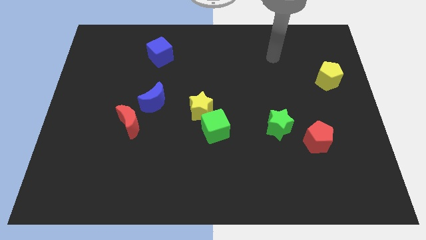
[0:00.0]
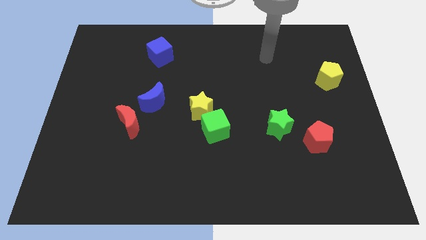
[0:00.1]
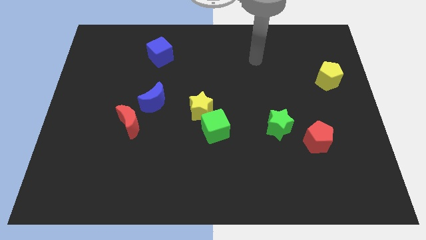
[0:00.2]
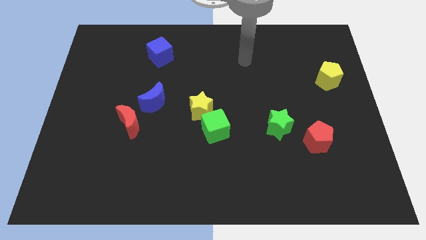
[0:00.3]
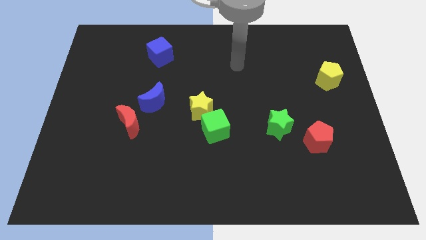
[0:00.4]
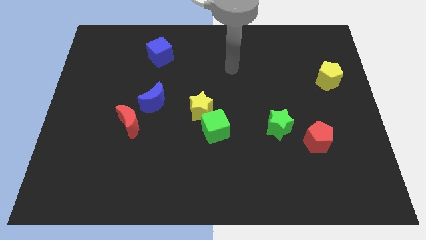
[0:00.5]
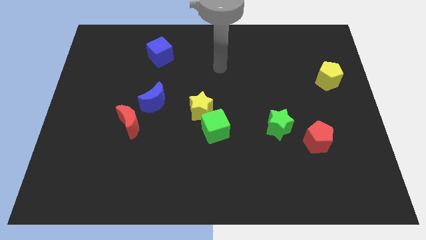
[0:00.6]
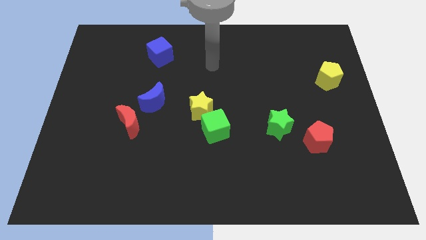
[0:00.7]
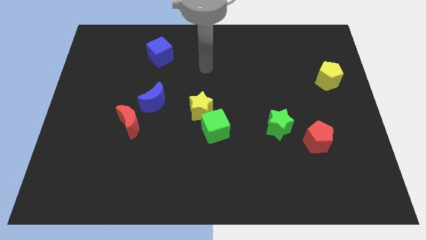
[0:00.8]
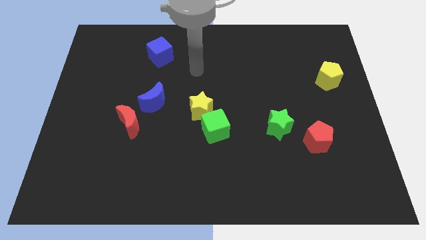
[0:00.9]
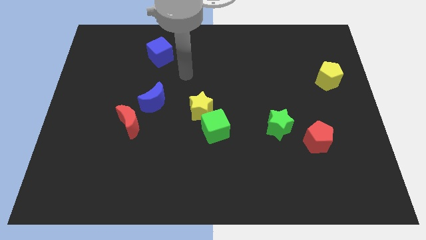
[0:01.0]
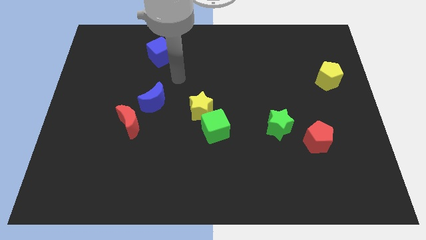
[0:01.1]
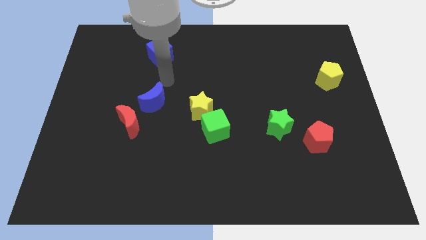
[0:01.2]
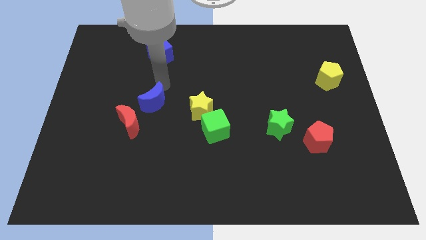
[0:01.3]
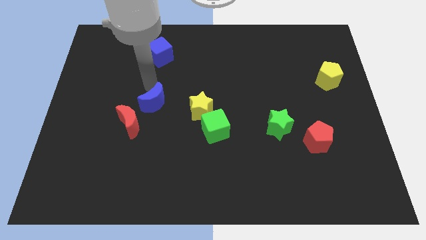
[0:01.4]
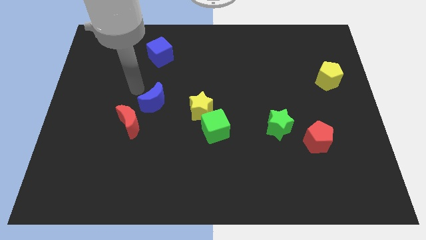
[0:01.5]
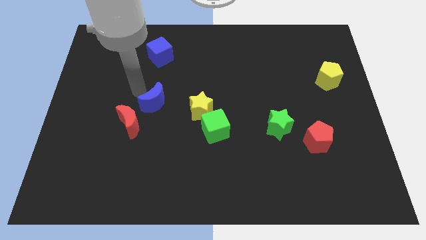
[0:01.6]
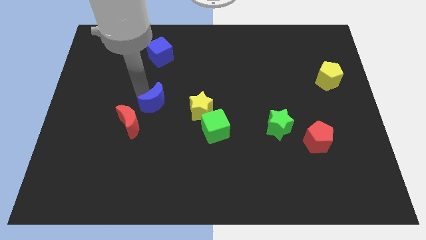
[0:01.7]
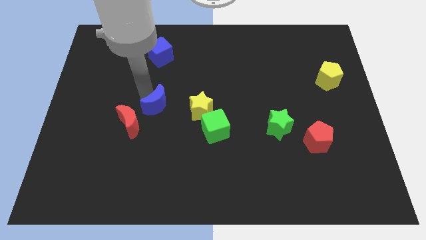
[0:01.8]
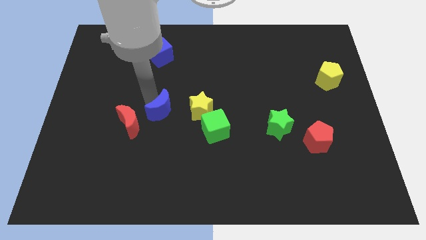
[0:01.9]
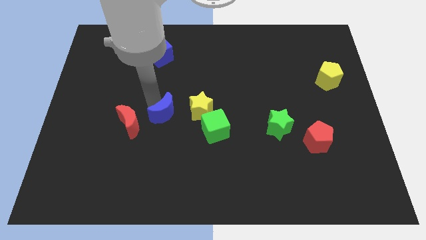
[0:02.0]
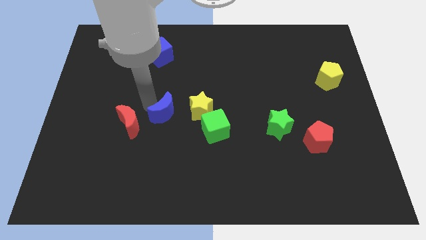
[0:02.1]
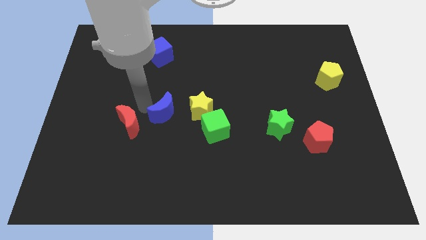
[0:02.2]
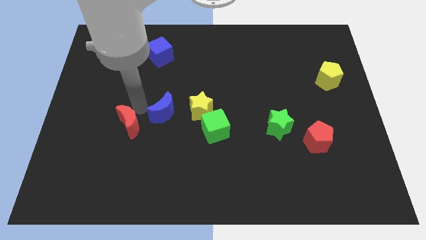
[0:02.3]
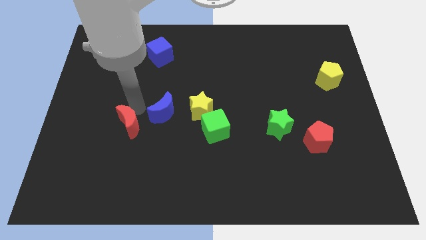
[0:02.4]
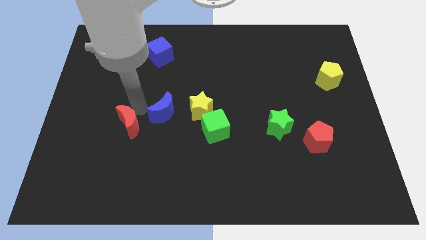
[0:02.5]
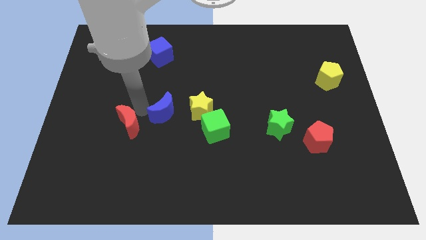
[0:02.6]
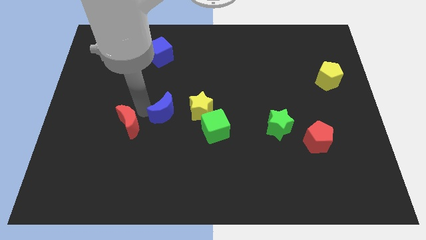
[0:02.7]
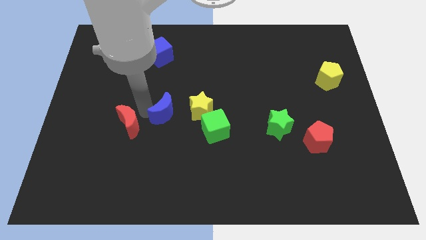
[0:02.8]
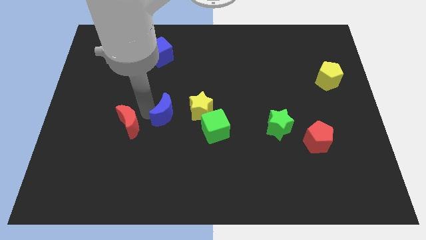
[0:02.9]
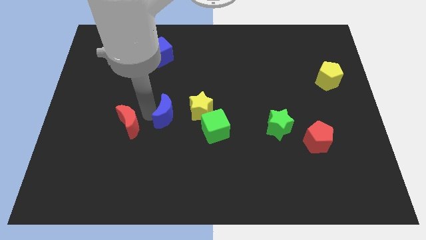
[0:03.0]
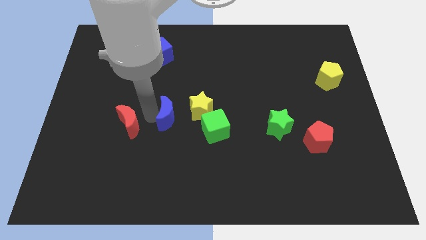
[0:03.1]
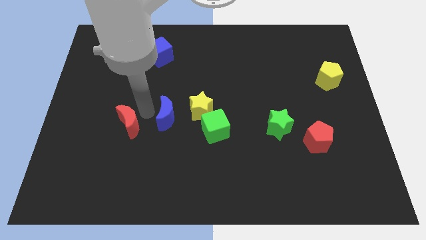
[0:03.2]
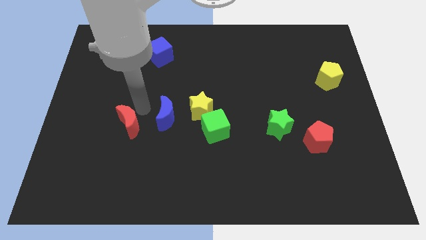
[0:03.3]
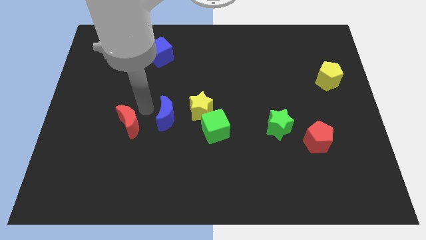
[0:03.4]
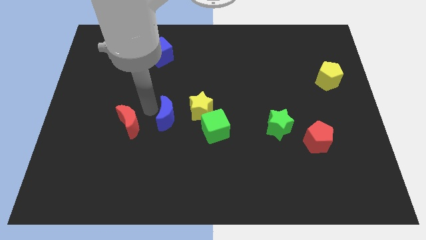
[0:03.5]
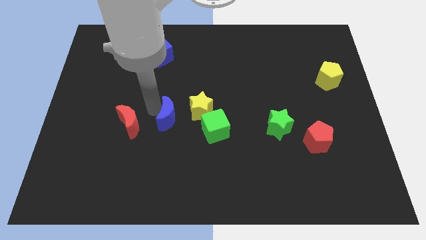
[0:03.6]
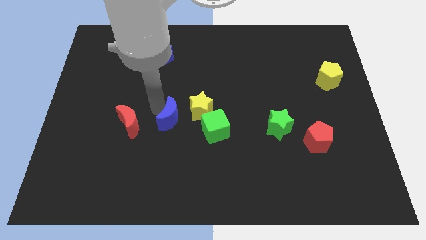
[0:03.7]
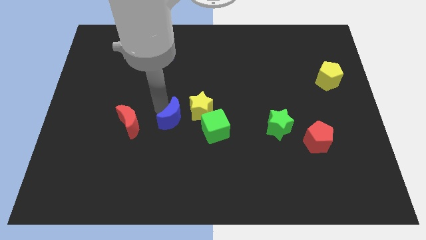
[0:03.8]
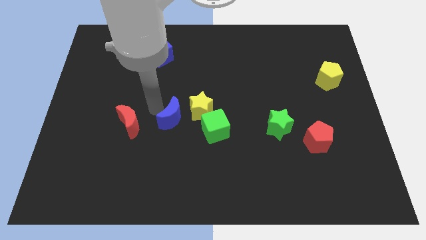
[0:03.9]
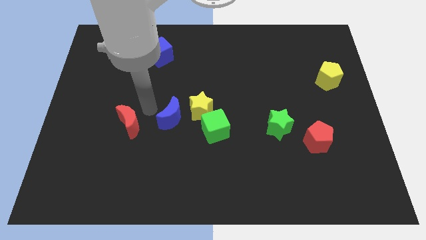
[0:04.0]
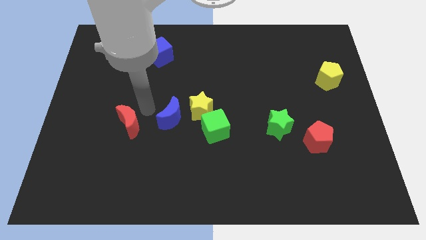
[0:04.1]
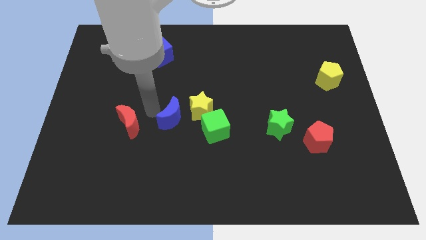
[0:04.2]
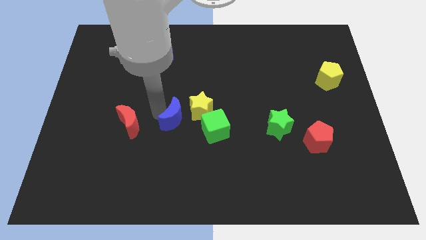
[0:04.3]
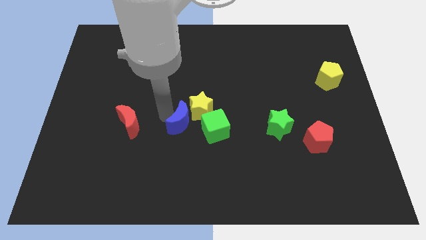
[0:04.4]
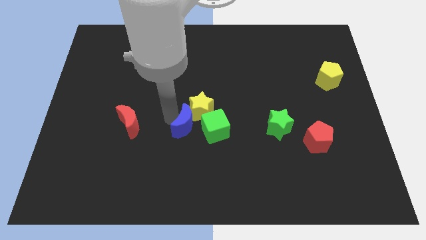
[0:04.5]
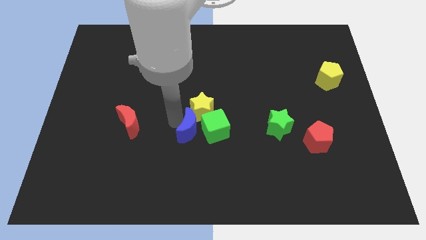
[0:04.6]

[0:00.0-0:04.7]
slide the blue moon to the green cube

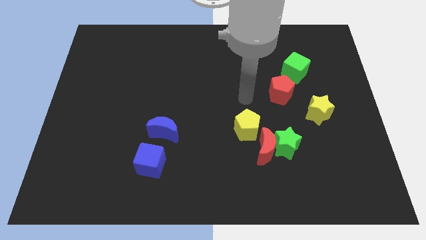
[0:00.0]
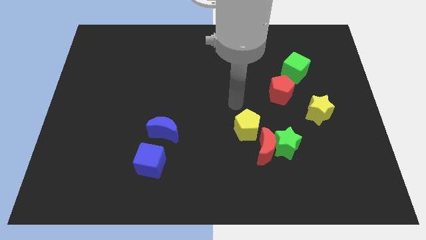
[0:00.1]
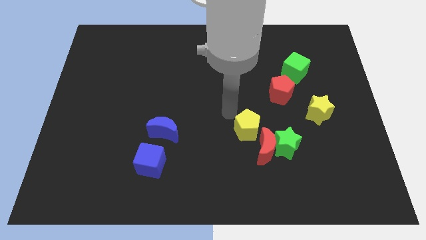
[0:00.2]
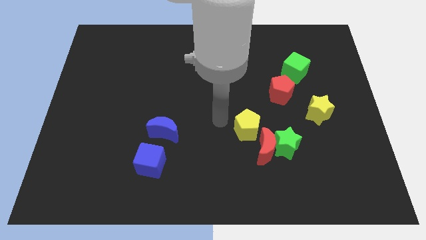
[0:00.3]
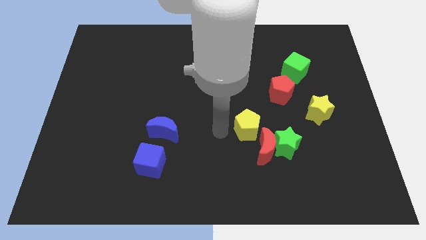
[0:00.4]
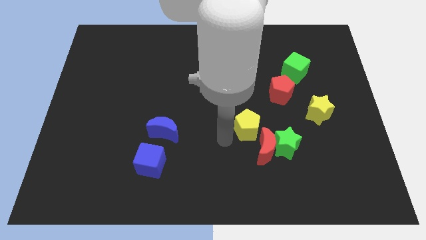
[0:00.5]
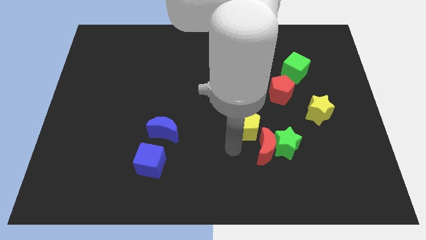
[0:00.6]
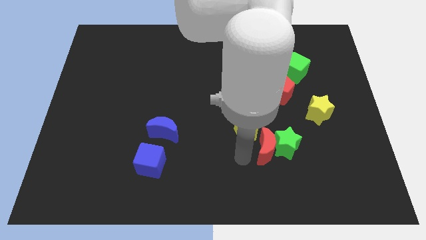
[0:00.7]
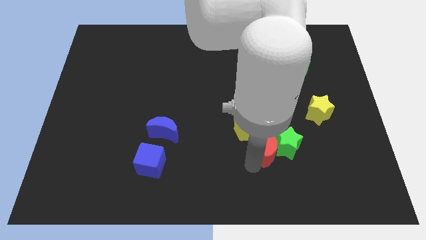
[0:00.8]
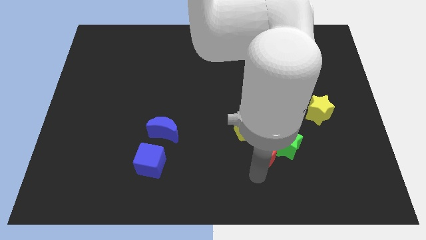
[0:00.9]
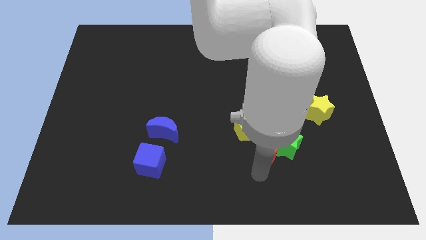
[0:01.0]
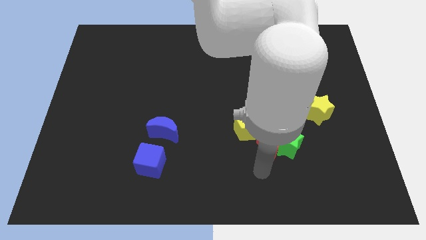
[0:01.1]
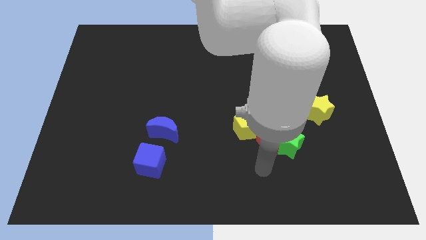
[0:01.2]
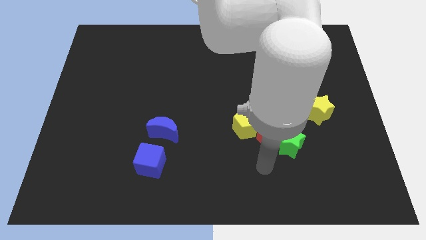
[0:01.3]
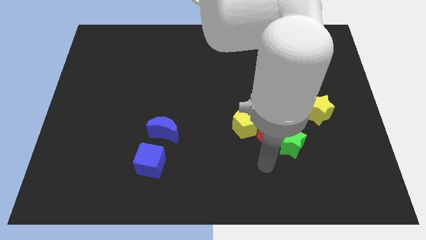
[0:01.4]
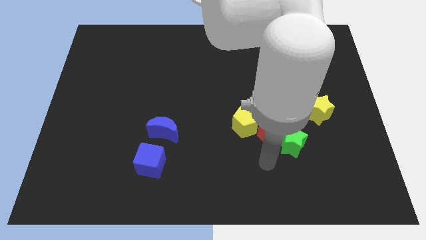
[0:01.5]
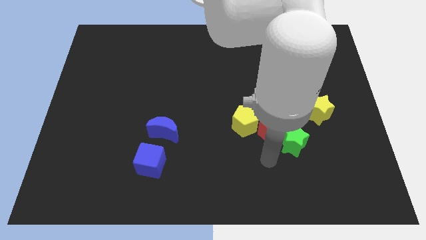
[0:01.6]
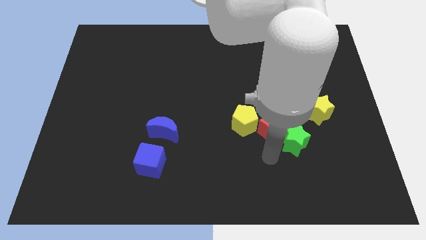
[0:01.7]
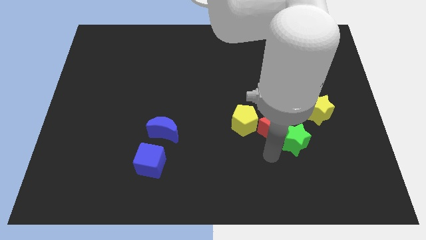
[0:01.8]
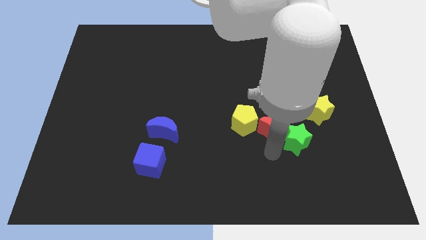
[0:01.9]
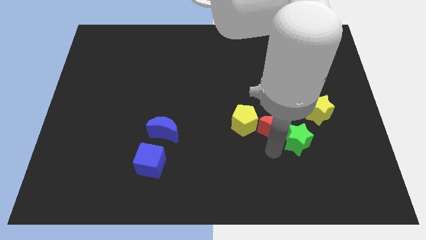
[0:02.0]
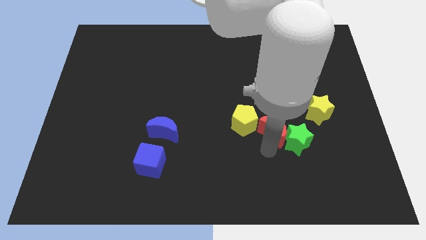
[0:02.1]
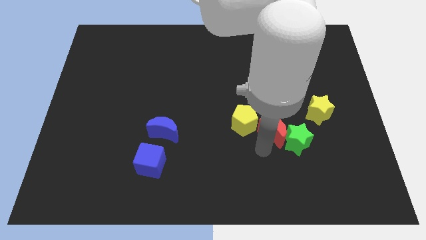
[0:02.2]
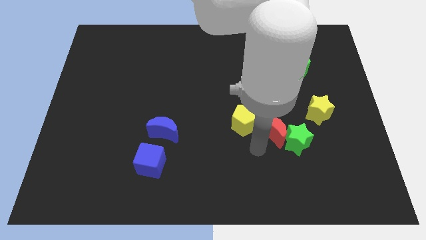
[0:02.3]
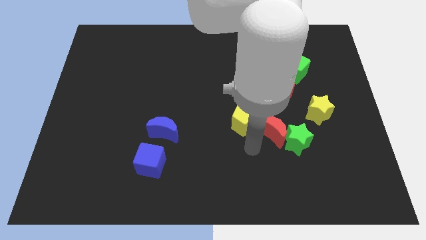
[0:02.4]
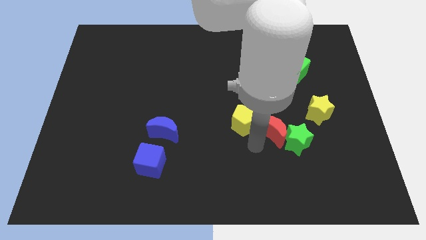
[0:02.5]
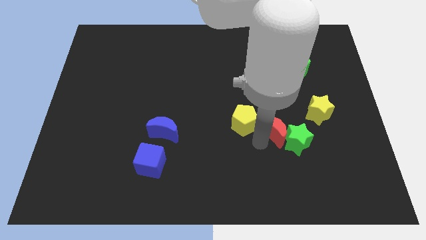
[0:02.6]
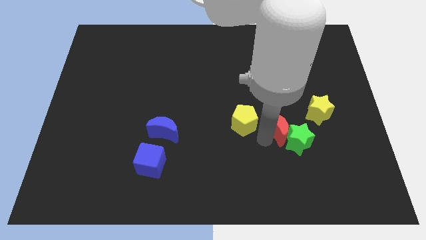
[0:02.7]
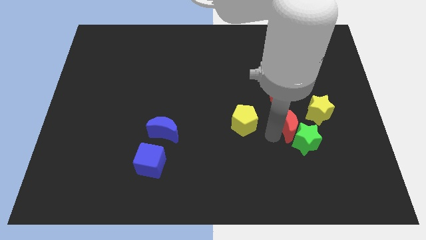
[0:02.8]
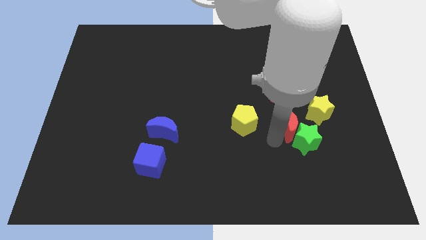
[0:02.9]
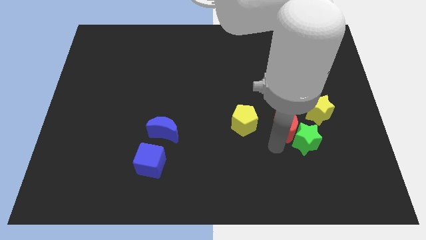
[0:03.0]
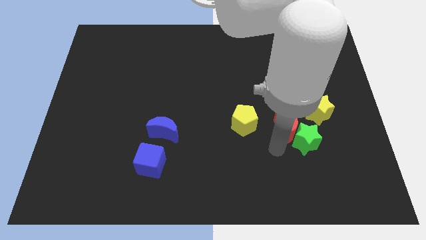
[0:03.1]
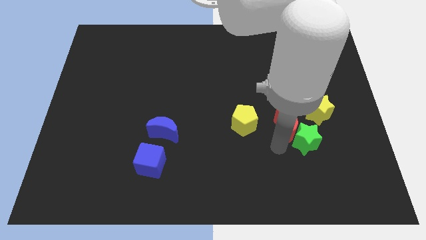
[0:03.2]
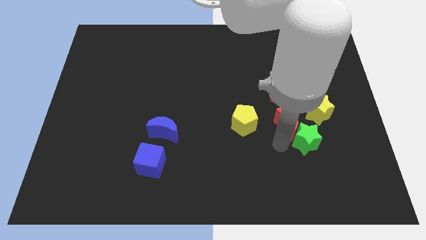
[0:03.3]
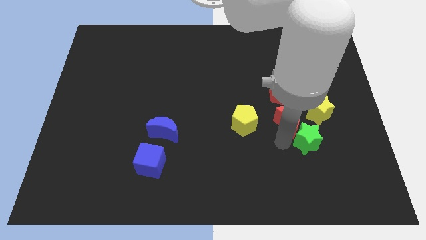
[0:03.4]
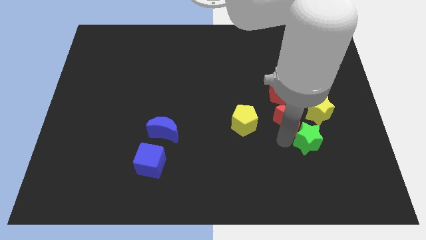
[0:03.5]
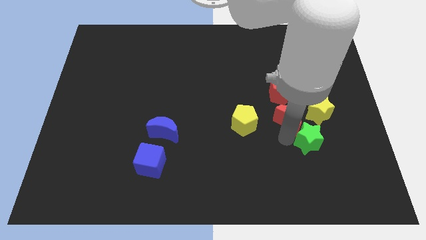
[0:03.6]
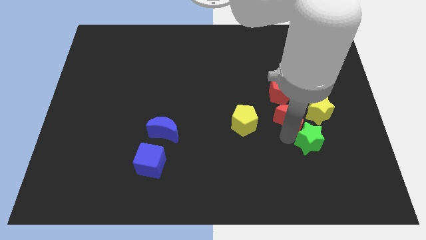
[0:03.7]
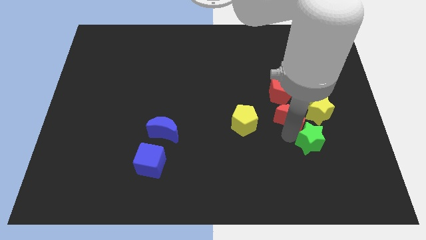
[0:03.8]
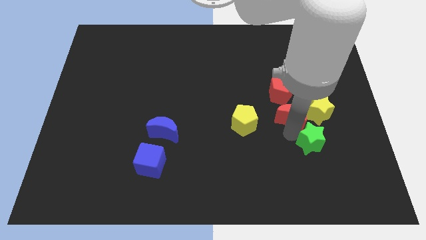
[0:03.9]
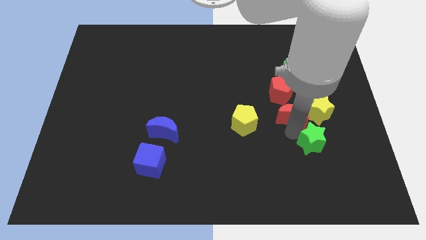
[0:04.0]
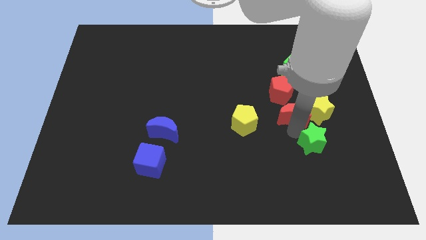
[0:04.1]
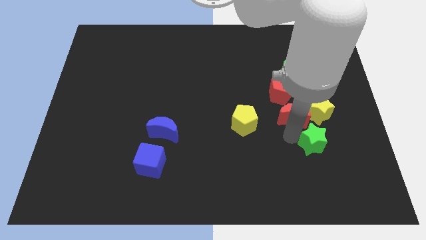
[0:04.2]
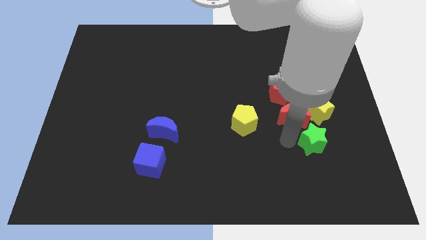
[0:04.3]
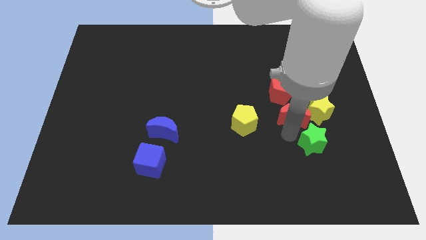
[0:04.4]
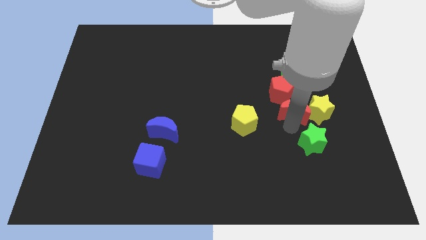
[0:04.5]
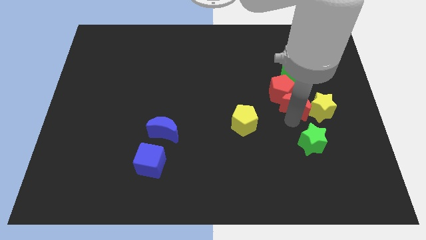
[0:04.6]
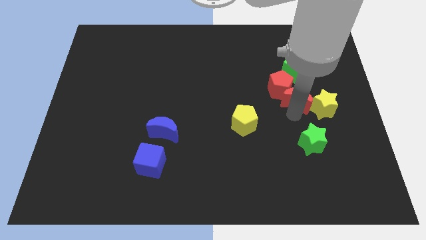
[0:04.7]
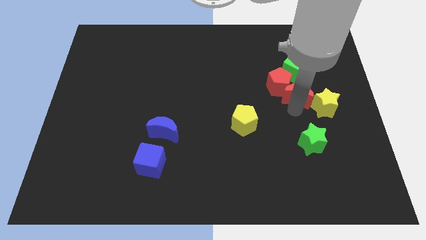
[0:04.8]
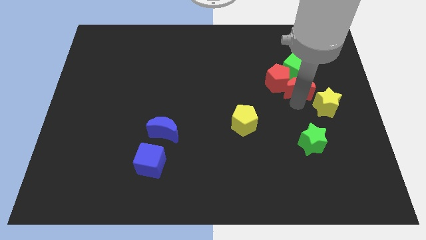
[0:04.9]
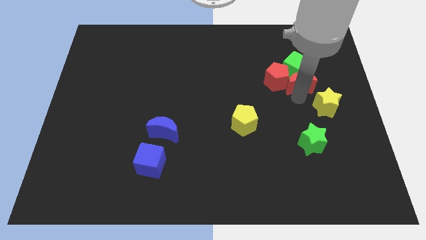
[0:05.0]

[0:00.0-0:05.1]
push the red moon close to the green cube
